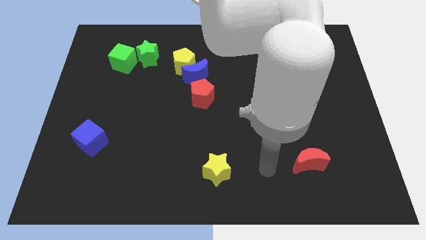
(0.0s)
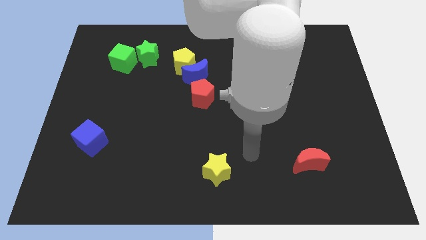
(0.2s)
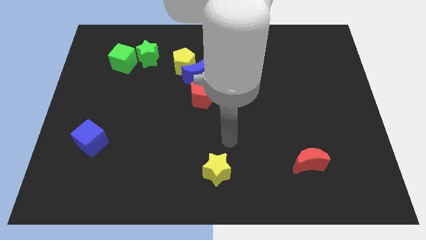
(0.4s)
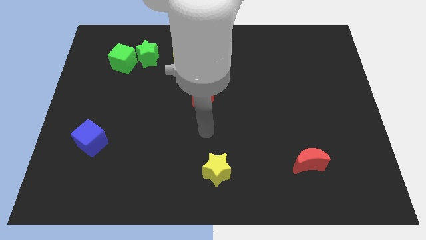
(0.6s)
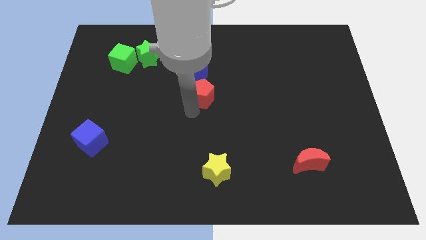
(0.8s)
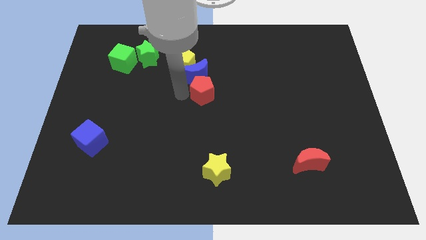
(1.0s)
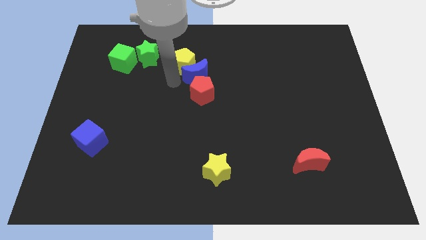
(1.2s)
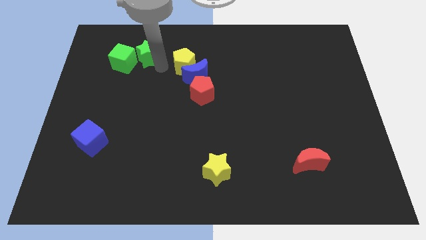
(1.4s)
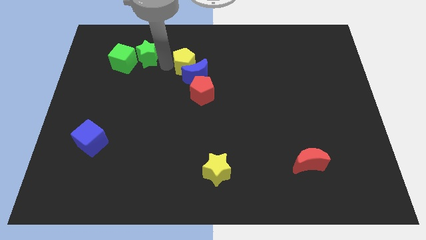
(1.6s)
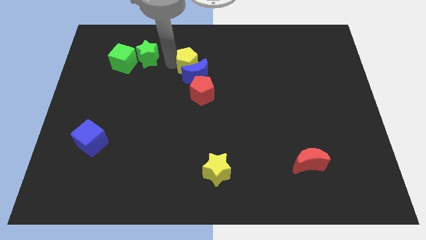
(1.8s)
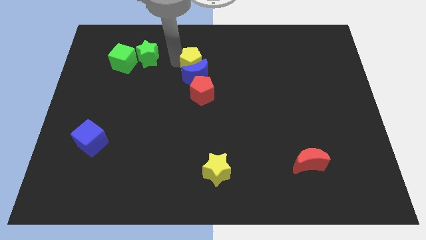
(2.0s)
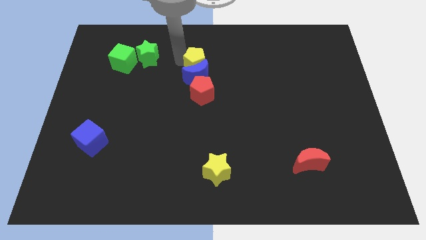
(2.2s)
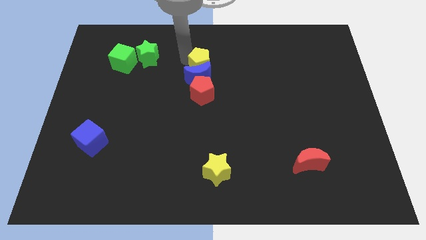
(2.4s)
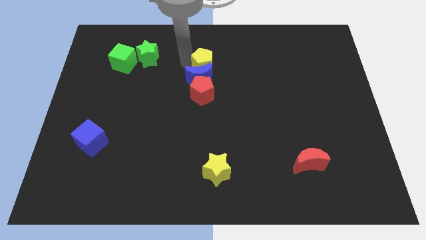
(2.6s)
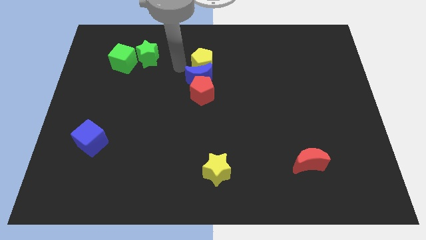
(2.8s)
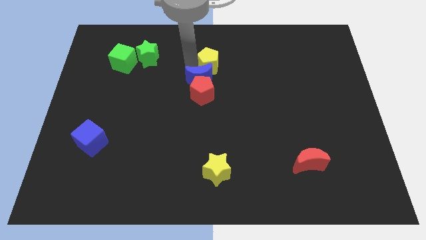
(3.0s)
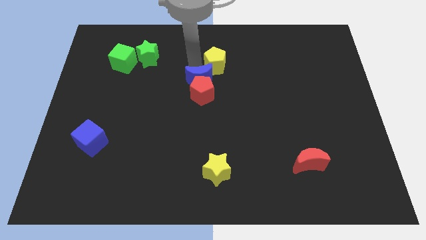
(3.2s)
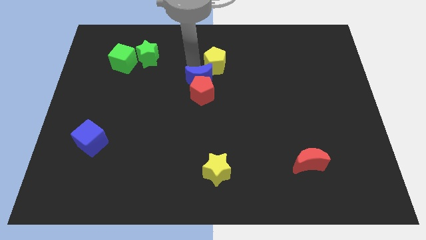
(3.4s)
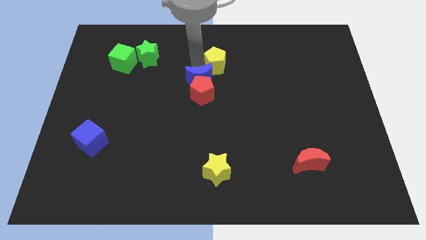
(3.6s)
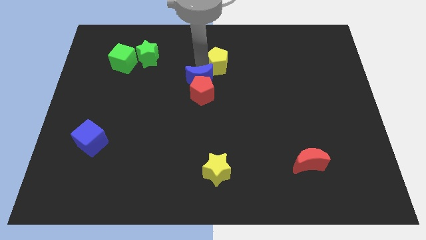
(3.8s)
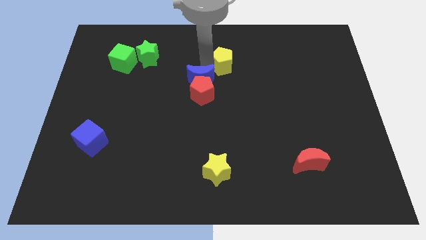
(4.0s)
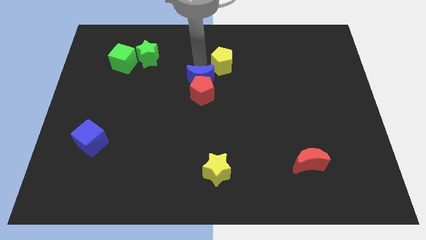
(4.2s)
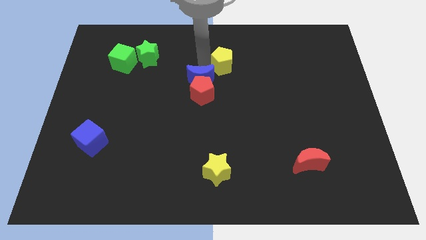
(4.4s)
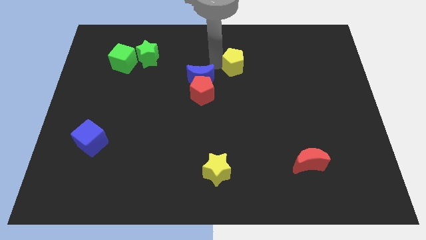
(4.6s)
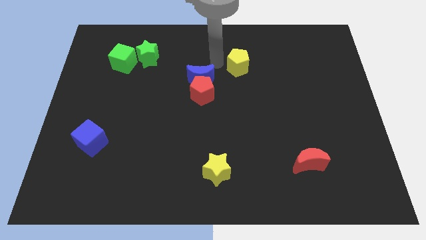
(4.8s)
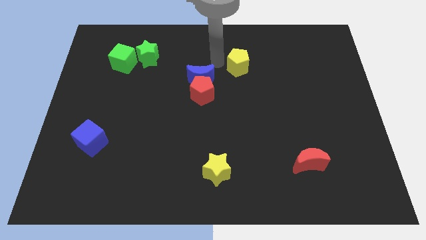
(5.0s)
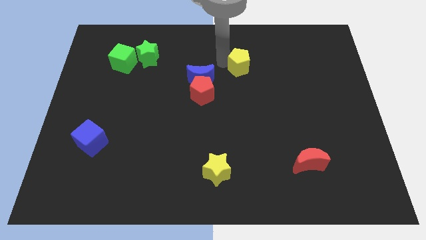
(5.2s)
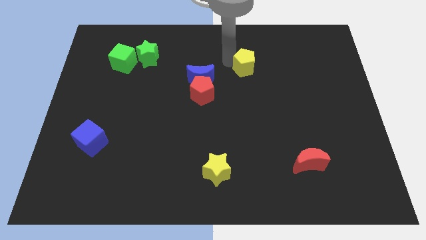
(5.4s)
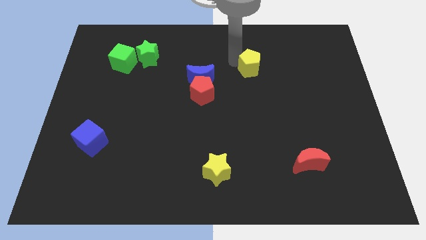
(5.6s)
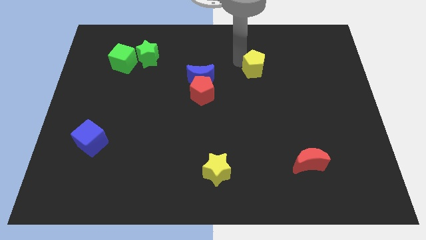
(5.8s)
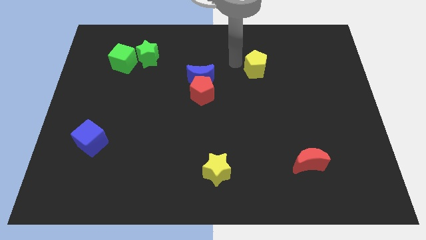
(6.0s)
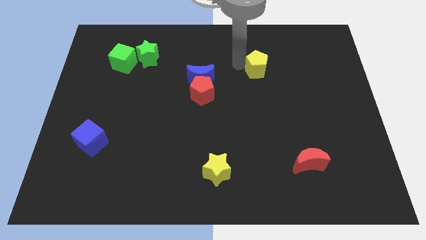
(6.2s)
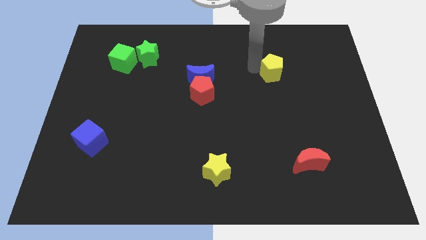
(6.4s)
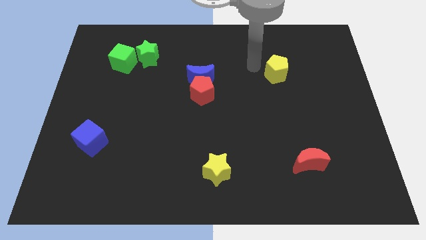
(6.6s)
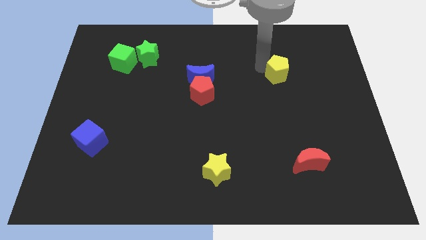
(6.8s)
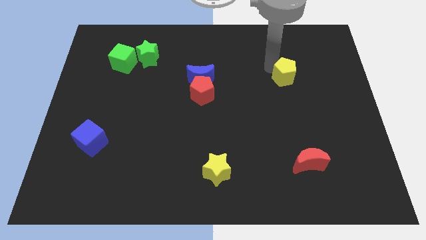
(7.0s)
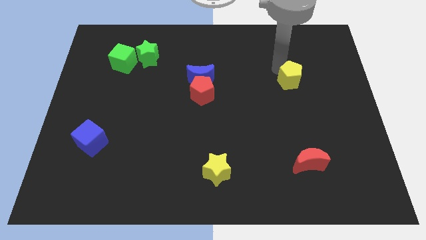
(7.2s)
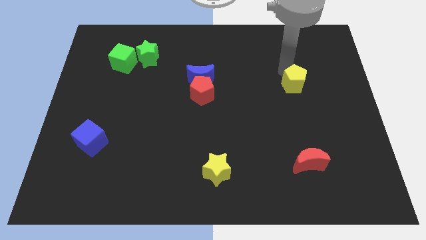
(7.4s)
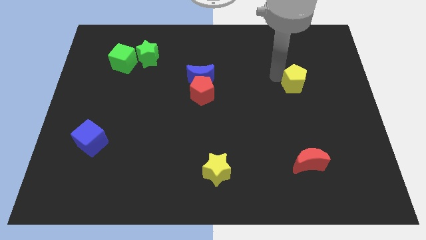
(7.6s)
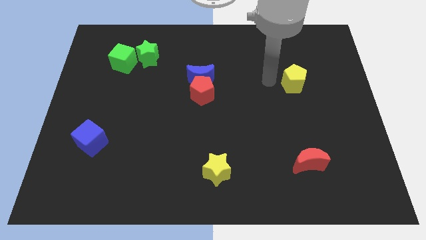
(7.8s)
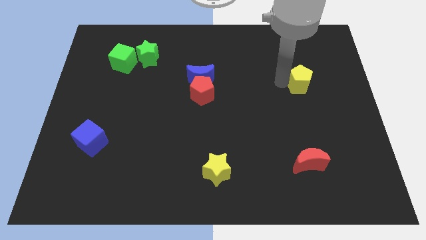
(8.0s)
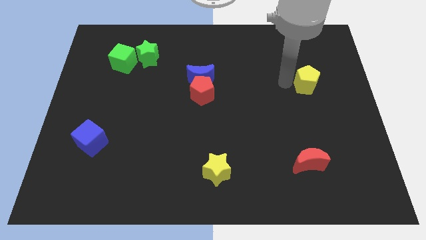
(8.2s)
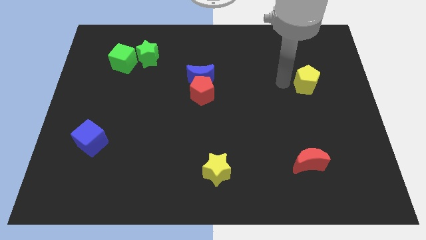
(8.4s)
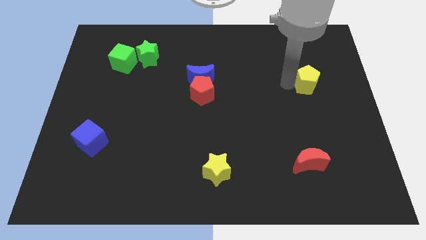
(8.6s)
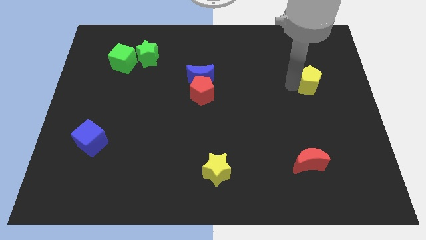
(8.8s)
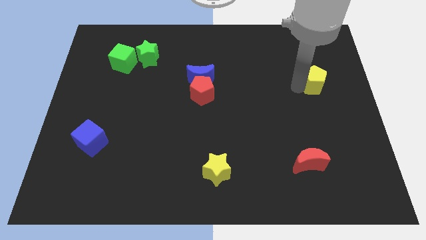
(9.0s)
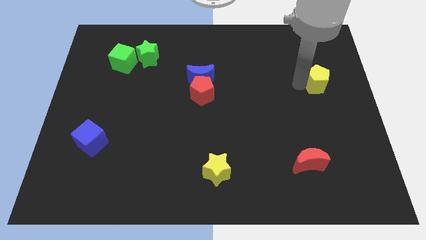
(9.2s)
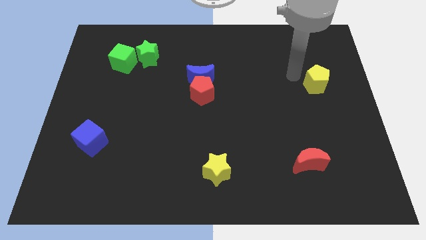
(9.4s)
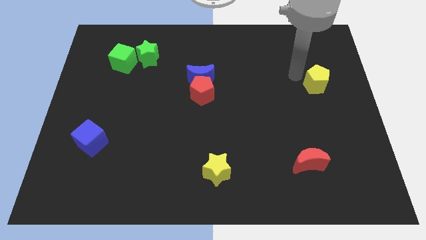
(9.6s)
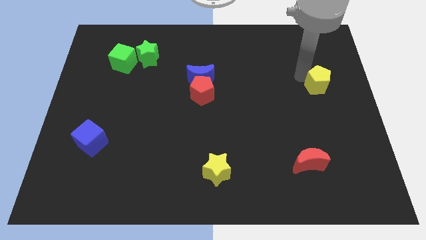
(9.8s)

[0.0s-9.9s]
push the yellow pentagon to the right side
